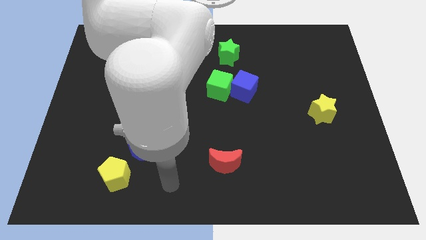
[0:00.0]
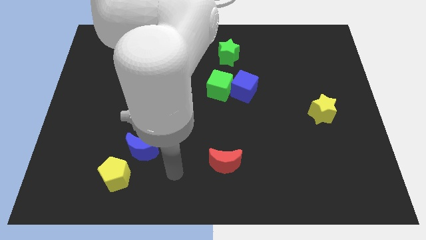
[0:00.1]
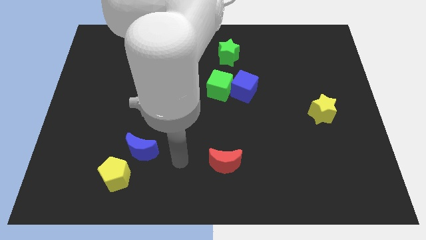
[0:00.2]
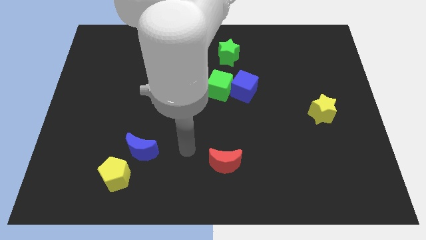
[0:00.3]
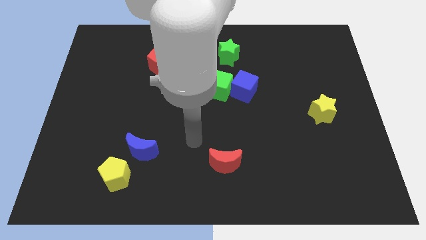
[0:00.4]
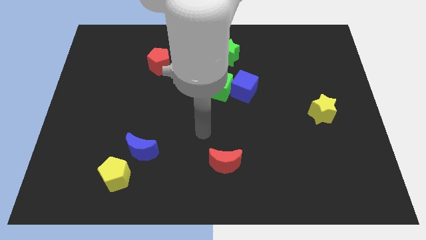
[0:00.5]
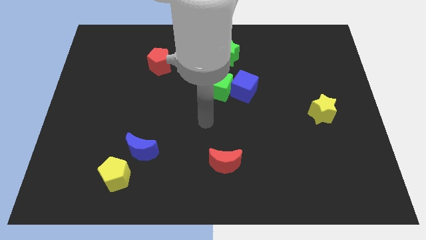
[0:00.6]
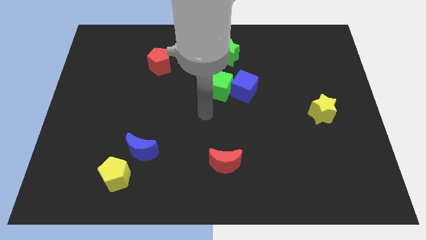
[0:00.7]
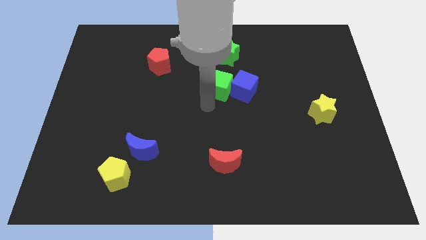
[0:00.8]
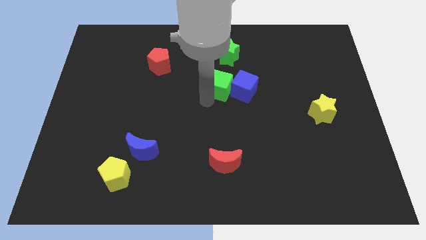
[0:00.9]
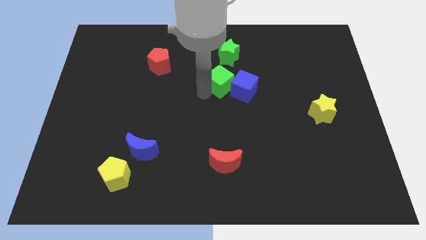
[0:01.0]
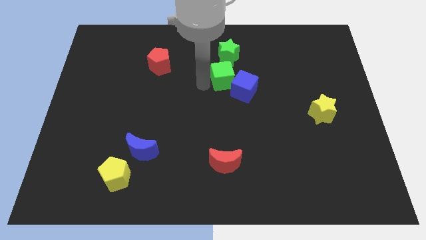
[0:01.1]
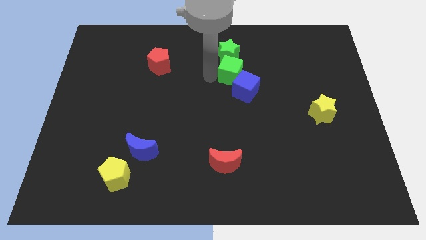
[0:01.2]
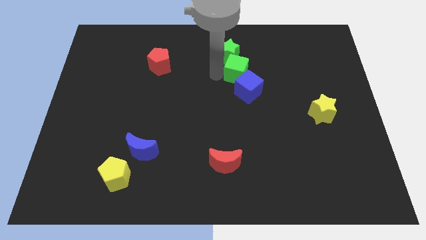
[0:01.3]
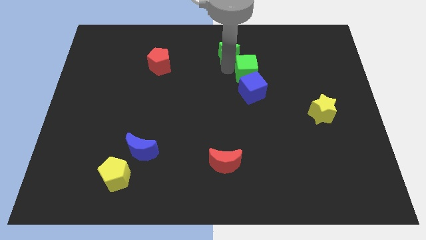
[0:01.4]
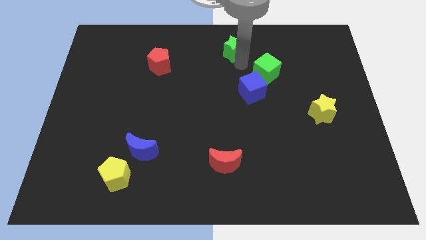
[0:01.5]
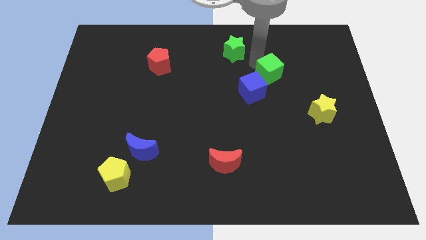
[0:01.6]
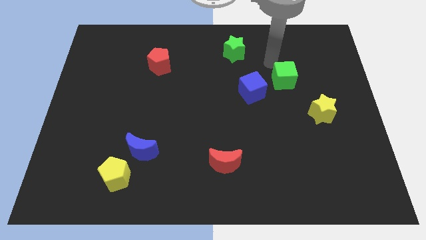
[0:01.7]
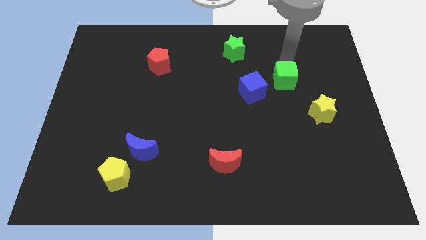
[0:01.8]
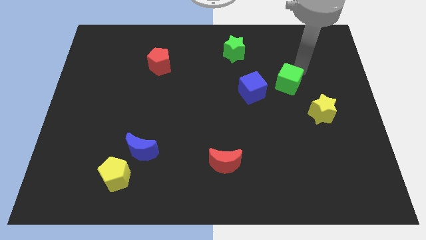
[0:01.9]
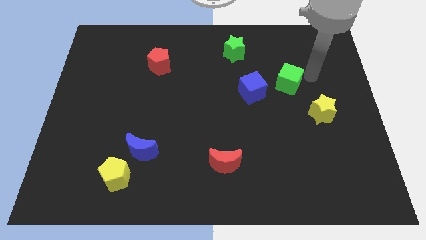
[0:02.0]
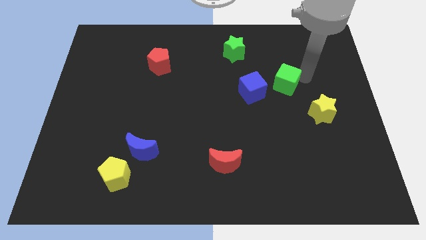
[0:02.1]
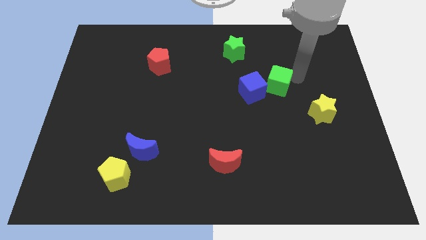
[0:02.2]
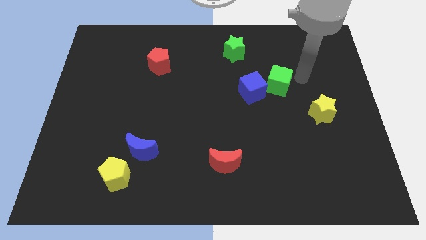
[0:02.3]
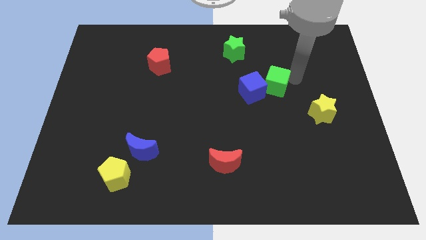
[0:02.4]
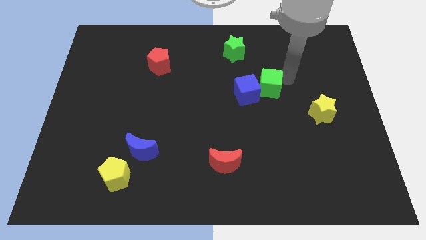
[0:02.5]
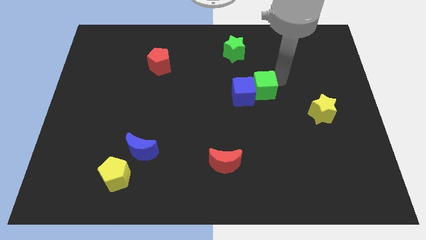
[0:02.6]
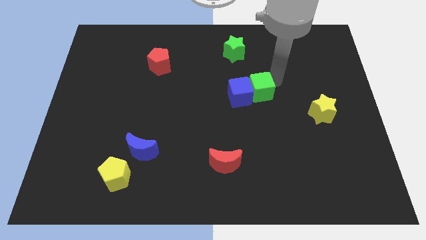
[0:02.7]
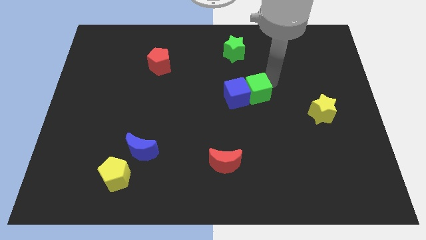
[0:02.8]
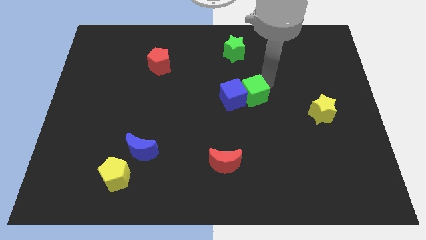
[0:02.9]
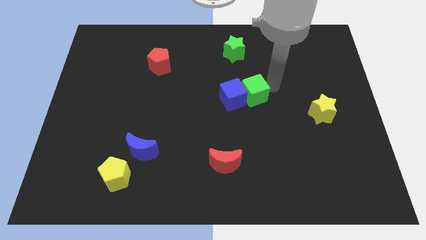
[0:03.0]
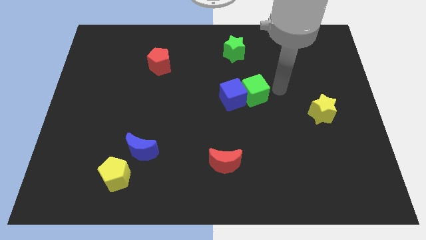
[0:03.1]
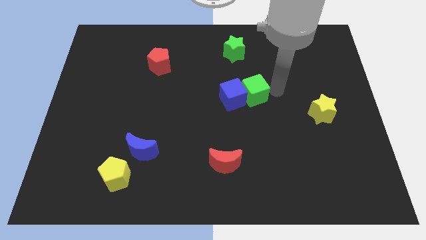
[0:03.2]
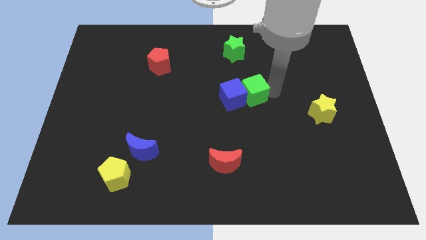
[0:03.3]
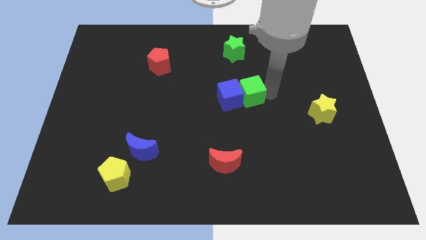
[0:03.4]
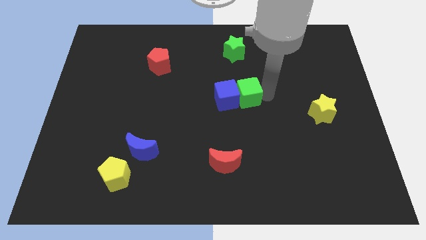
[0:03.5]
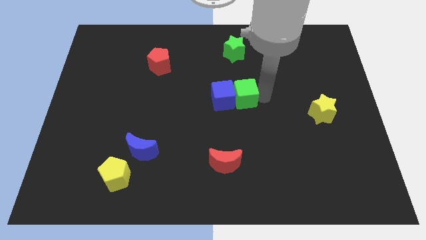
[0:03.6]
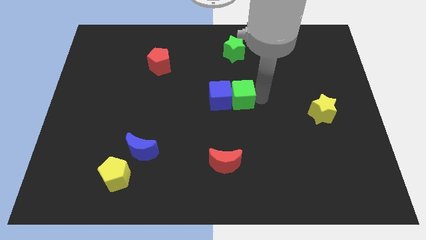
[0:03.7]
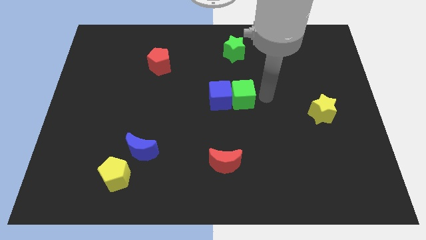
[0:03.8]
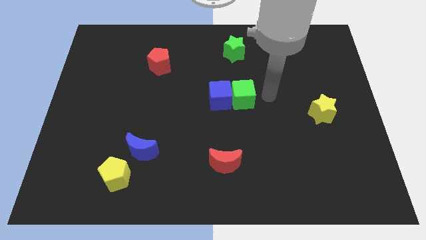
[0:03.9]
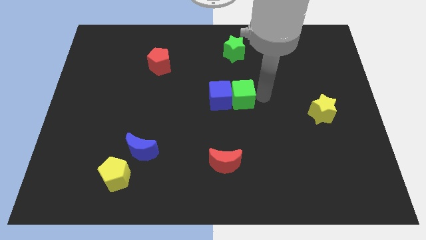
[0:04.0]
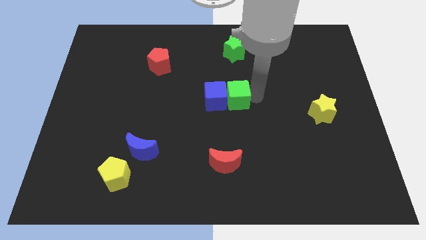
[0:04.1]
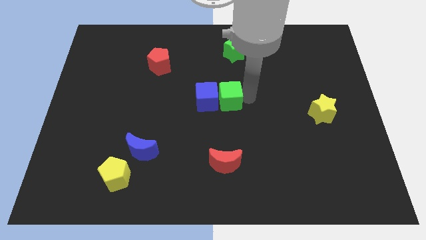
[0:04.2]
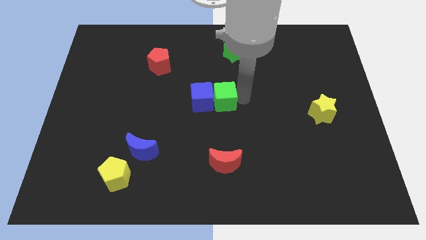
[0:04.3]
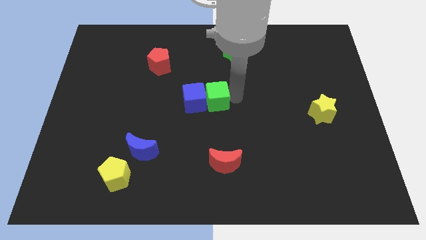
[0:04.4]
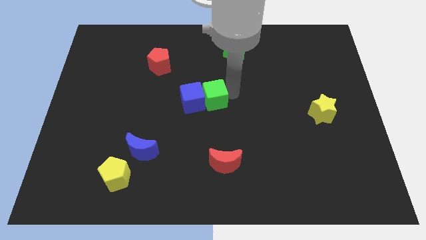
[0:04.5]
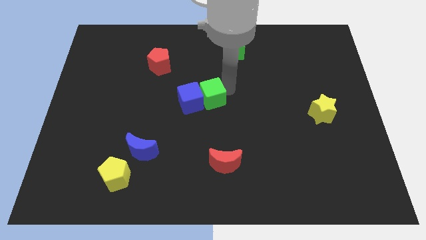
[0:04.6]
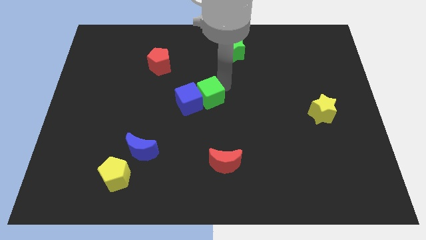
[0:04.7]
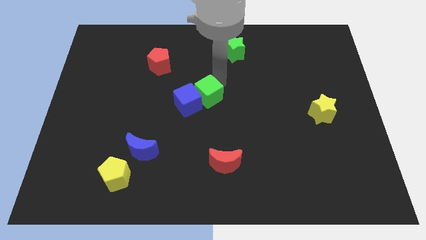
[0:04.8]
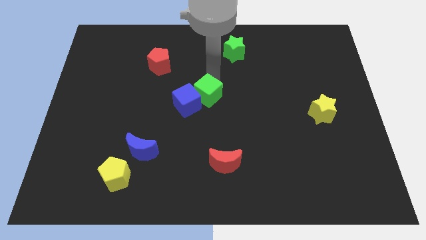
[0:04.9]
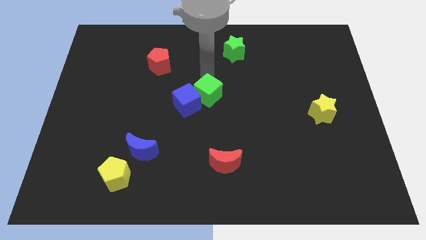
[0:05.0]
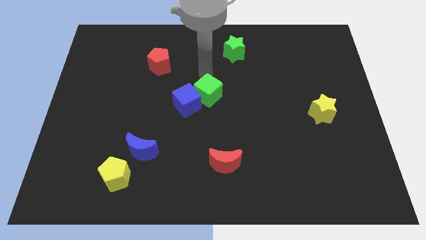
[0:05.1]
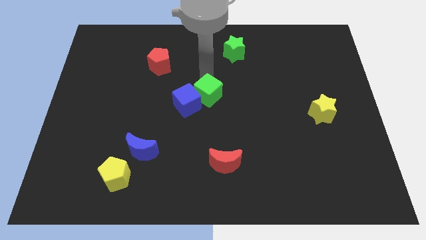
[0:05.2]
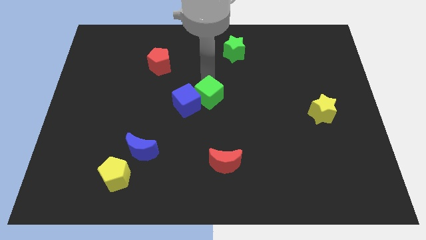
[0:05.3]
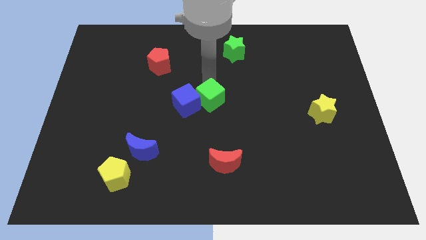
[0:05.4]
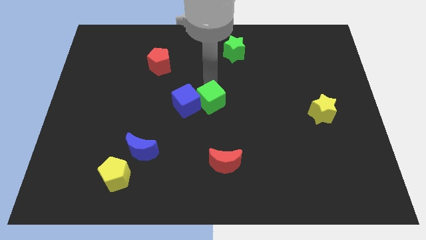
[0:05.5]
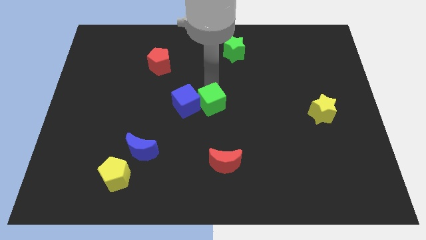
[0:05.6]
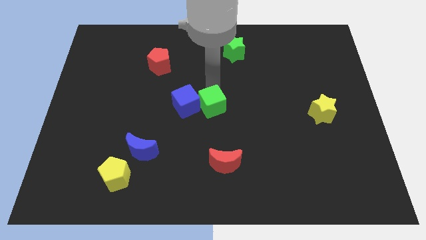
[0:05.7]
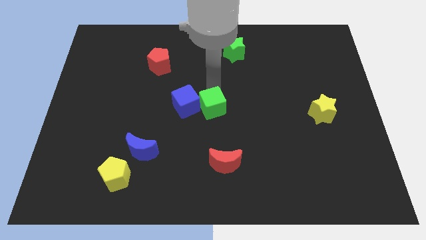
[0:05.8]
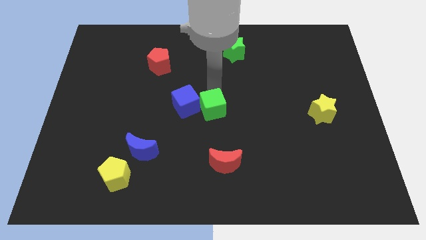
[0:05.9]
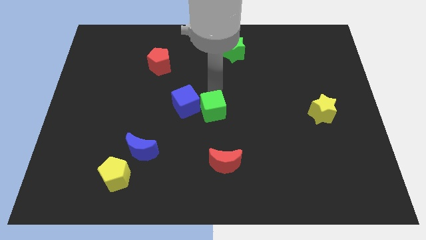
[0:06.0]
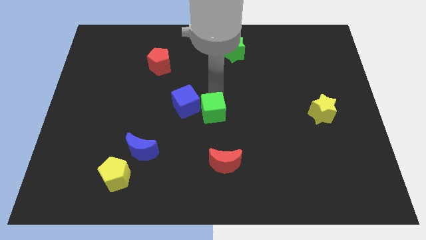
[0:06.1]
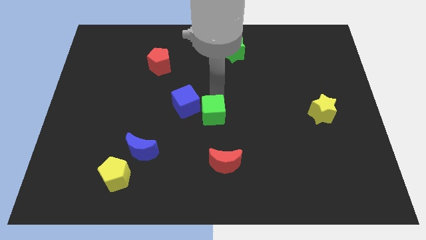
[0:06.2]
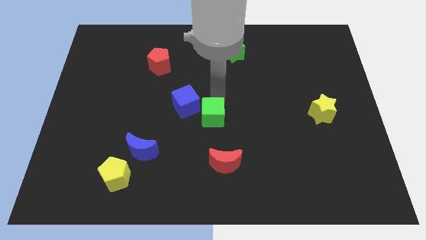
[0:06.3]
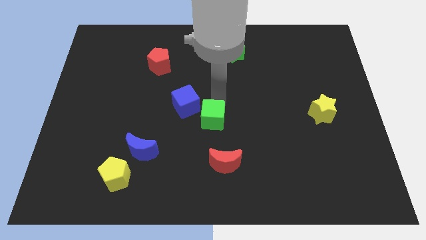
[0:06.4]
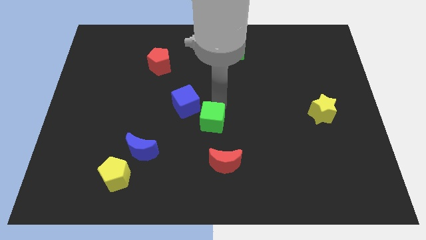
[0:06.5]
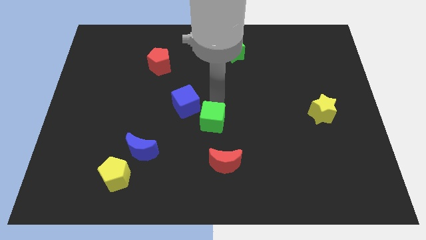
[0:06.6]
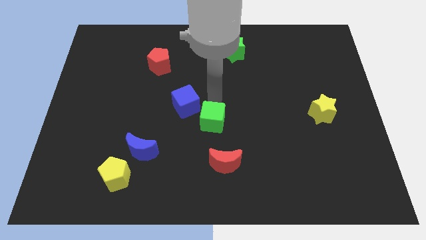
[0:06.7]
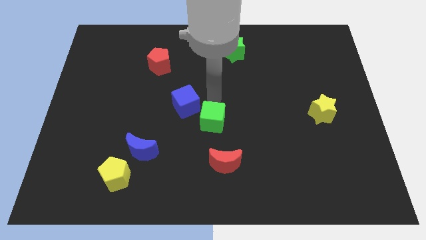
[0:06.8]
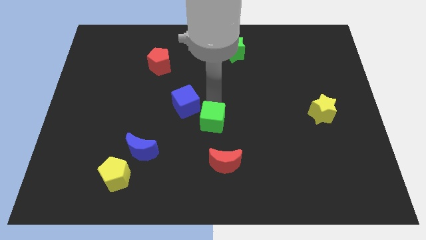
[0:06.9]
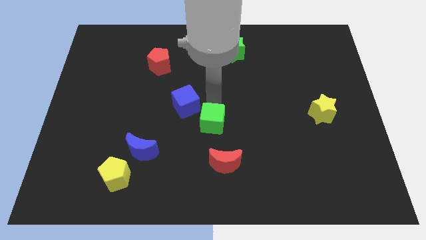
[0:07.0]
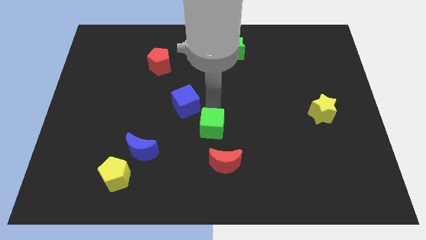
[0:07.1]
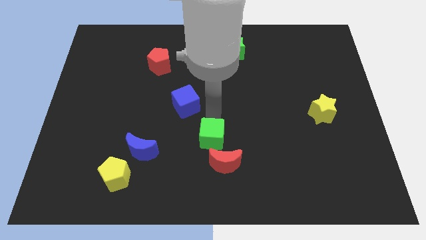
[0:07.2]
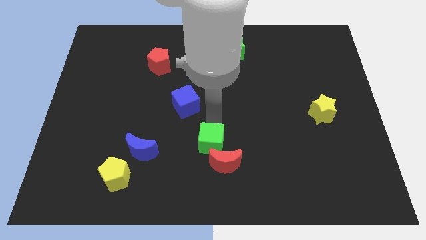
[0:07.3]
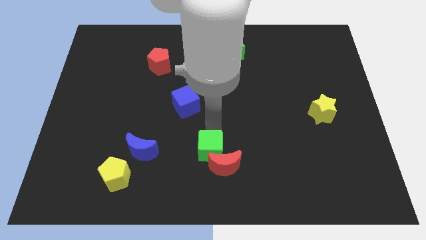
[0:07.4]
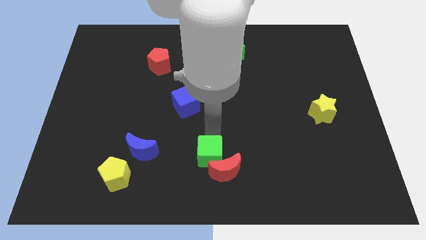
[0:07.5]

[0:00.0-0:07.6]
put the green cube to the bottom

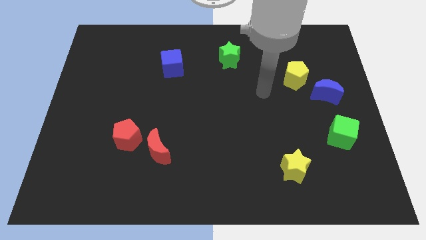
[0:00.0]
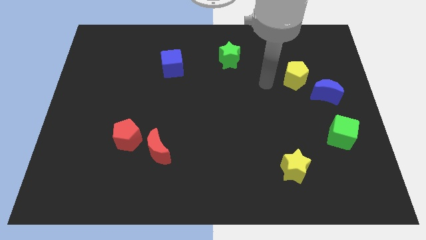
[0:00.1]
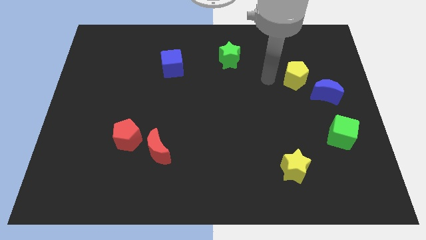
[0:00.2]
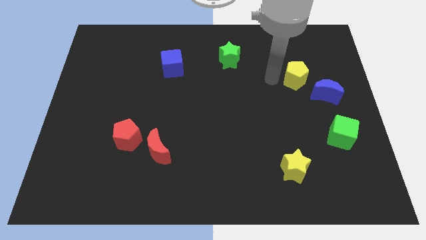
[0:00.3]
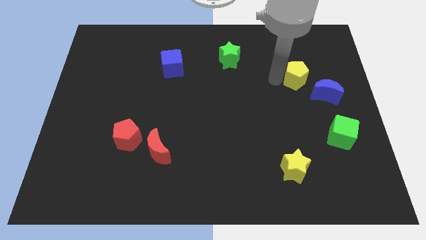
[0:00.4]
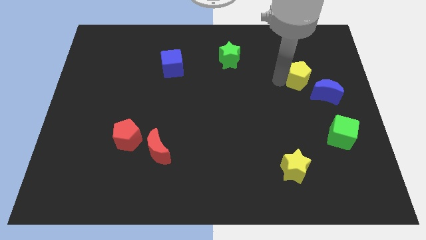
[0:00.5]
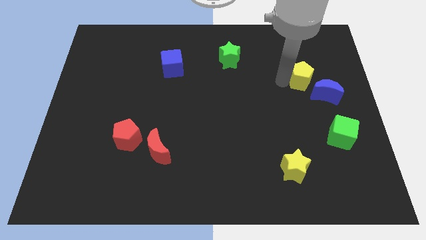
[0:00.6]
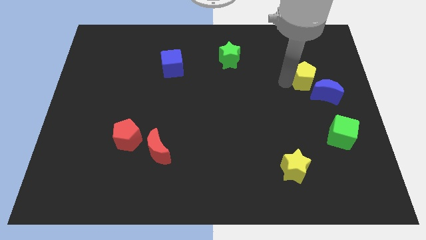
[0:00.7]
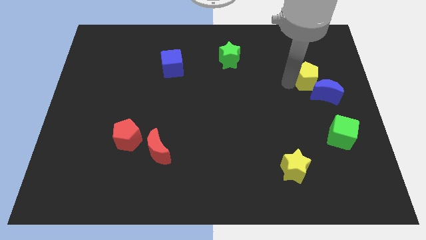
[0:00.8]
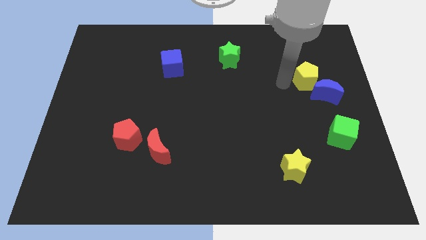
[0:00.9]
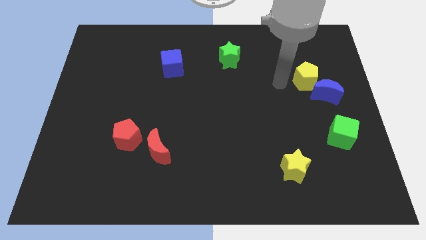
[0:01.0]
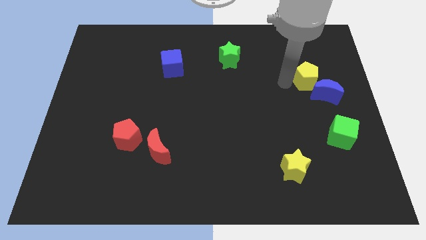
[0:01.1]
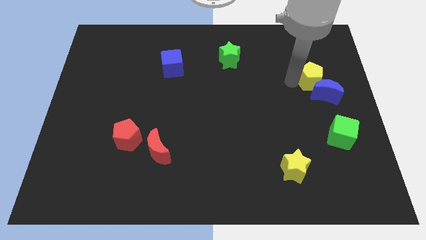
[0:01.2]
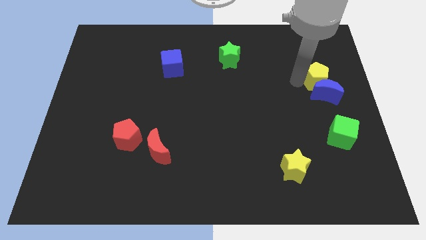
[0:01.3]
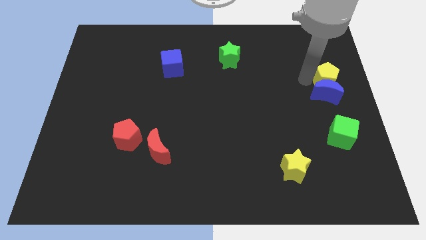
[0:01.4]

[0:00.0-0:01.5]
put the yellow pentagon to the right side of the board
